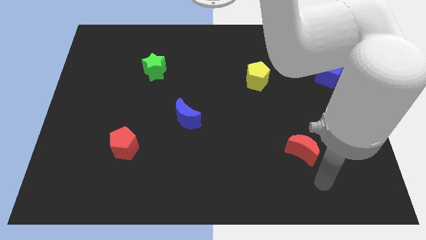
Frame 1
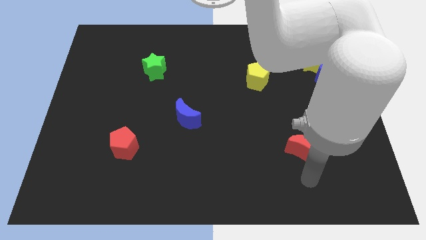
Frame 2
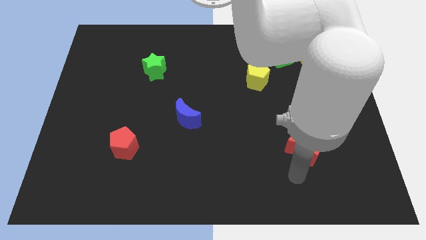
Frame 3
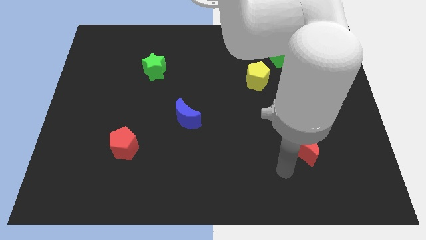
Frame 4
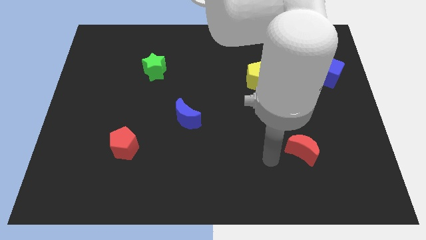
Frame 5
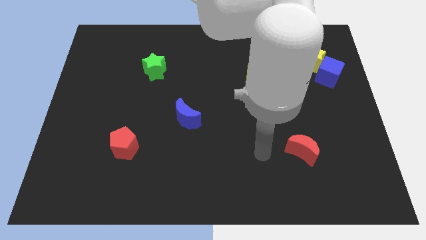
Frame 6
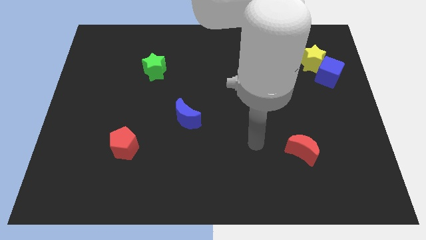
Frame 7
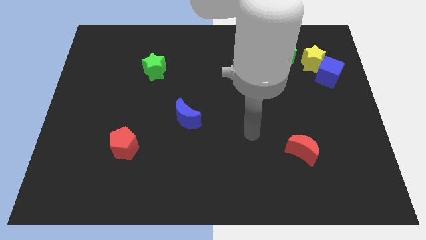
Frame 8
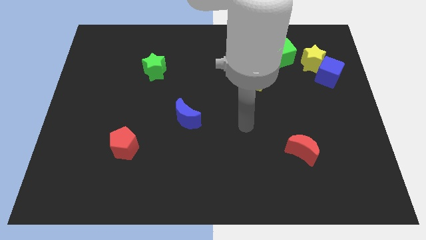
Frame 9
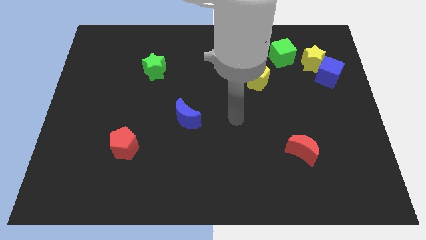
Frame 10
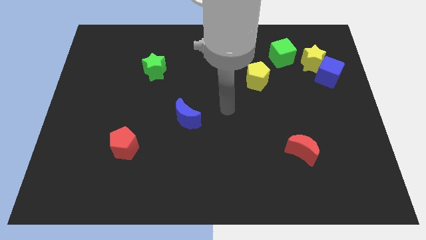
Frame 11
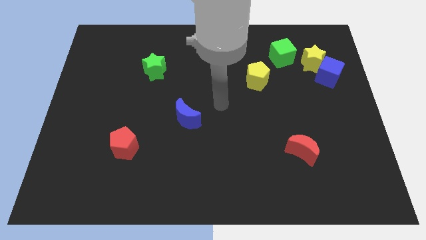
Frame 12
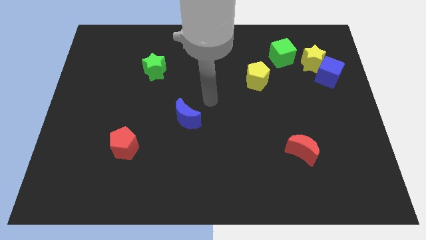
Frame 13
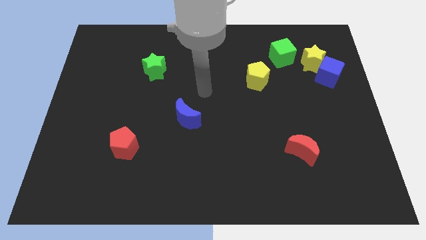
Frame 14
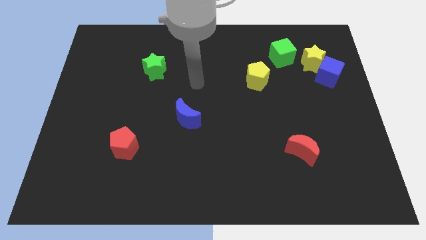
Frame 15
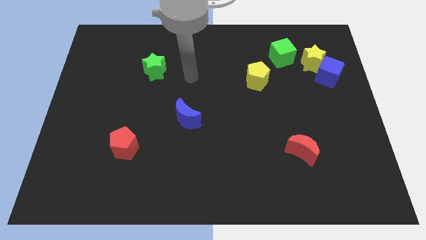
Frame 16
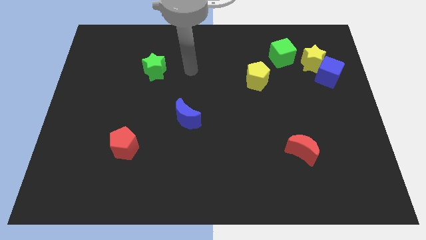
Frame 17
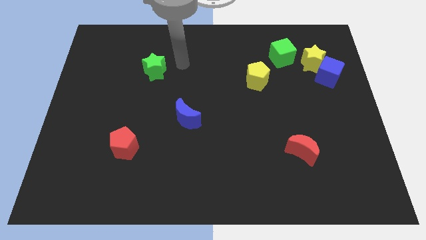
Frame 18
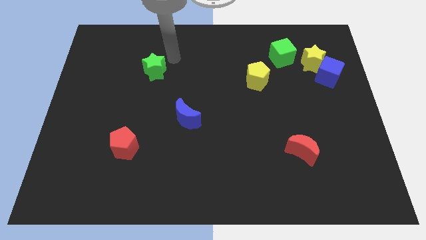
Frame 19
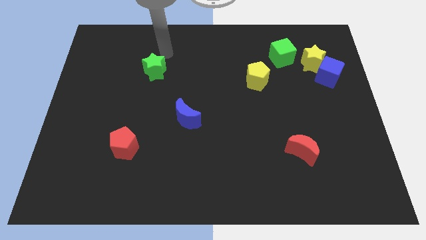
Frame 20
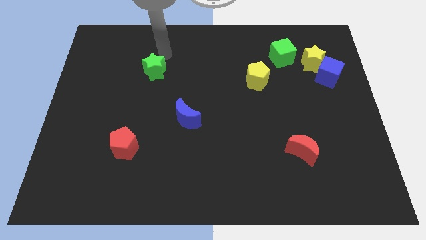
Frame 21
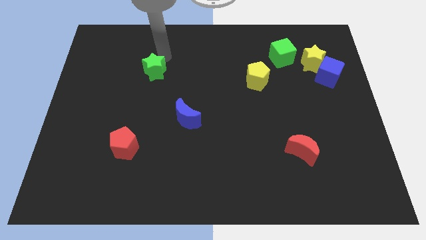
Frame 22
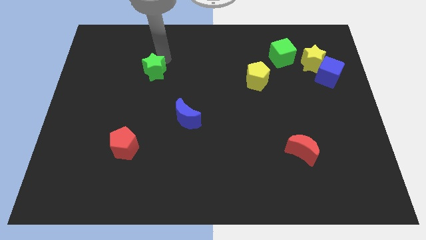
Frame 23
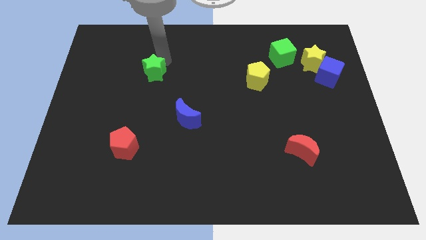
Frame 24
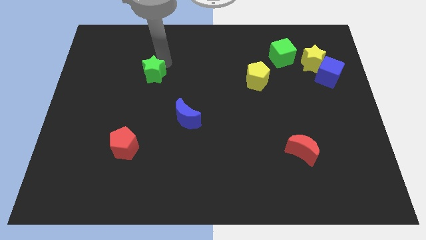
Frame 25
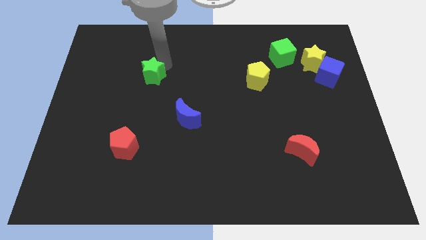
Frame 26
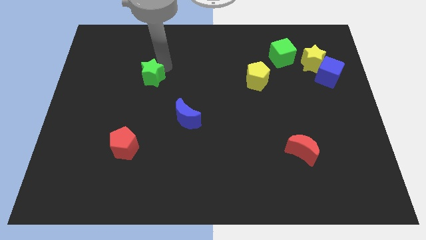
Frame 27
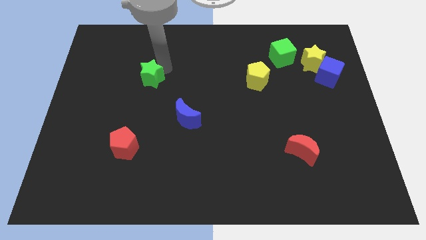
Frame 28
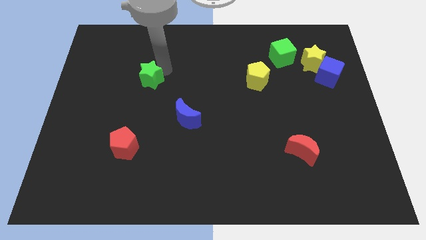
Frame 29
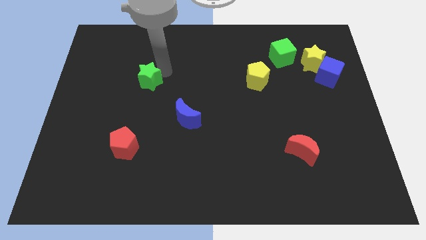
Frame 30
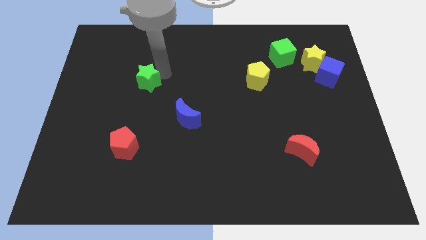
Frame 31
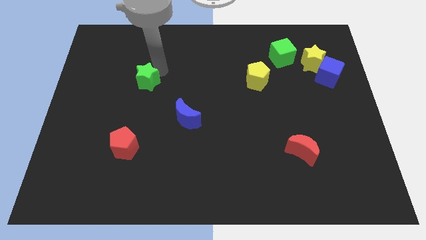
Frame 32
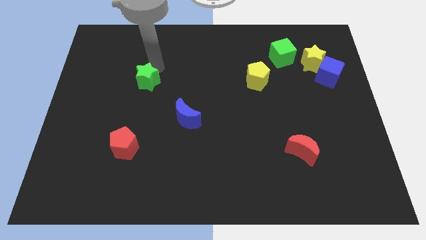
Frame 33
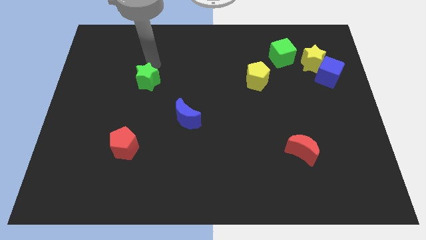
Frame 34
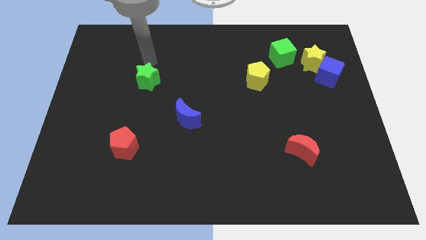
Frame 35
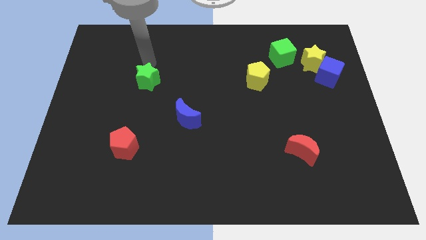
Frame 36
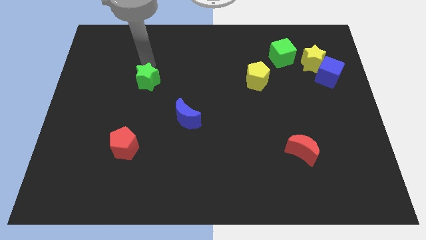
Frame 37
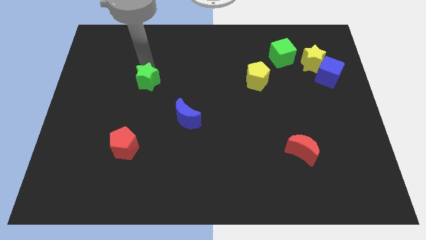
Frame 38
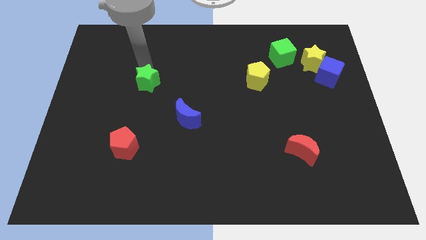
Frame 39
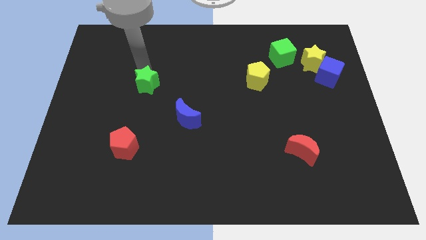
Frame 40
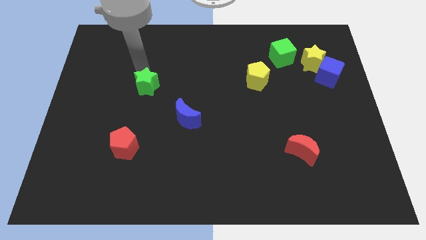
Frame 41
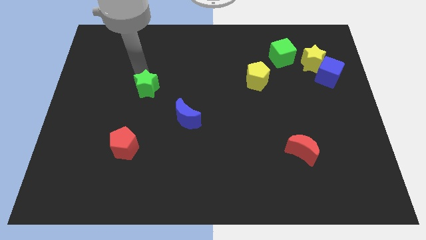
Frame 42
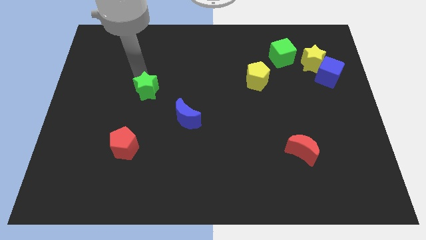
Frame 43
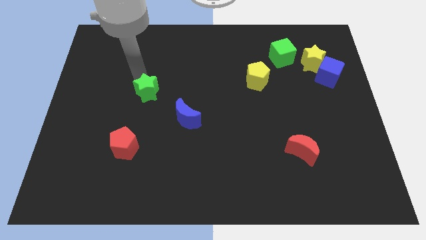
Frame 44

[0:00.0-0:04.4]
move the green star downwards a little

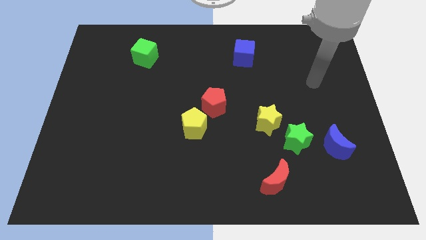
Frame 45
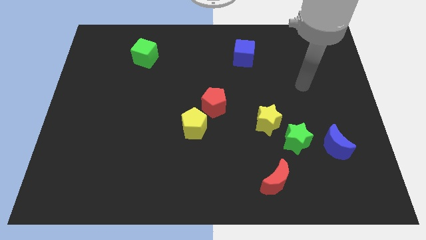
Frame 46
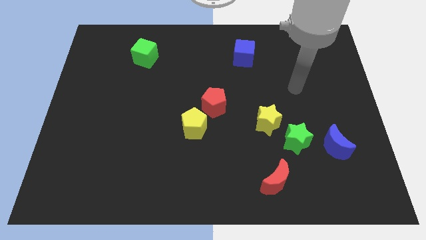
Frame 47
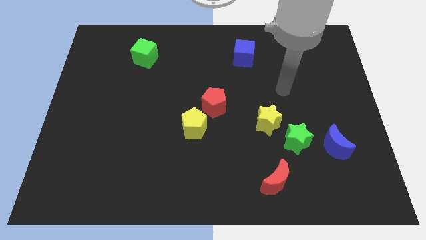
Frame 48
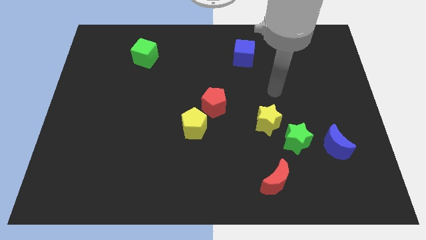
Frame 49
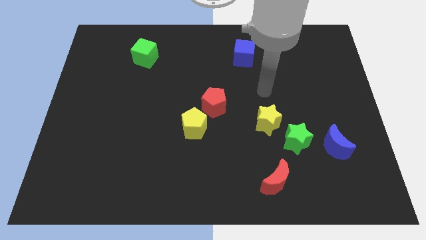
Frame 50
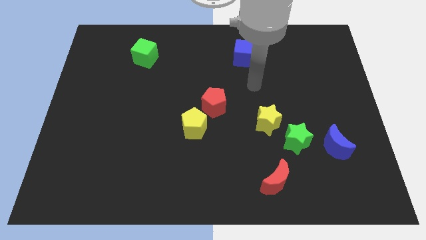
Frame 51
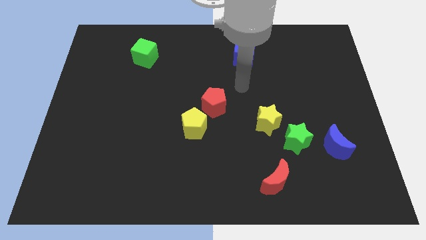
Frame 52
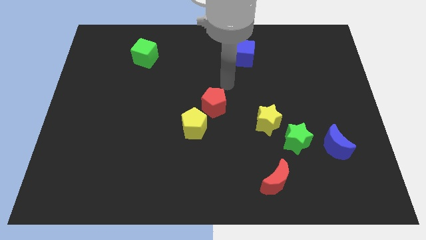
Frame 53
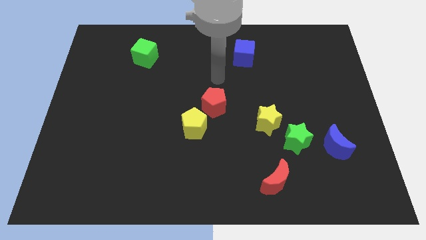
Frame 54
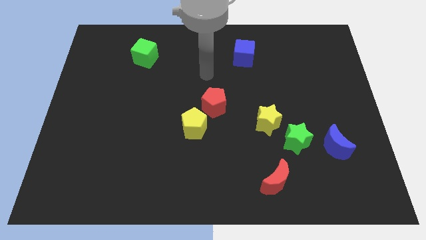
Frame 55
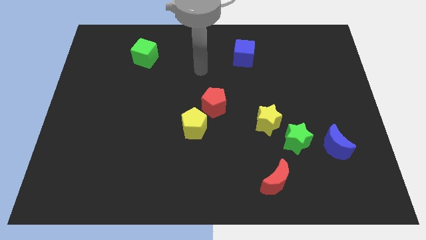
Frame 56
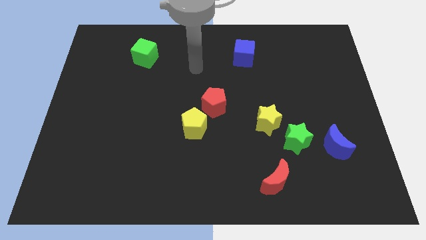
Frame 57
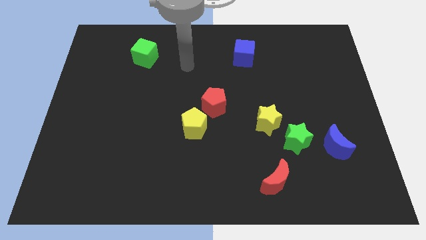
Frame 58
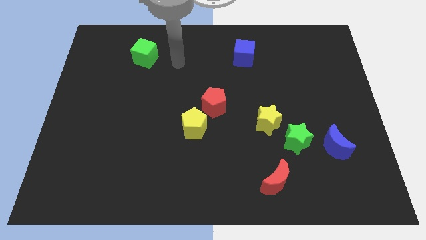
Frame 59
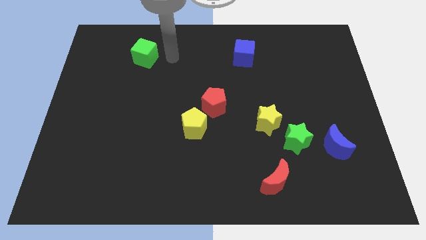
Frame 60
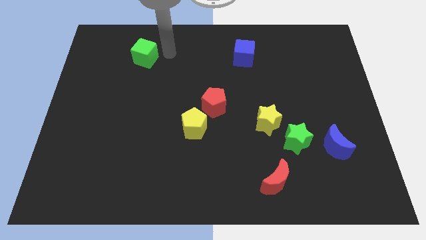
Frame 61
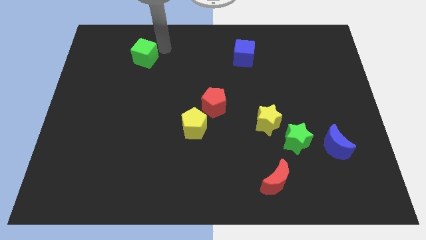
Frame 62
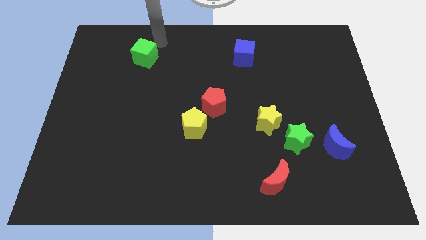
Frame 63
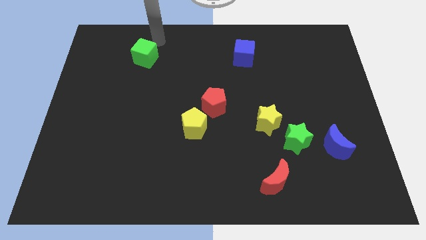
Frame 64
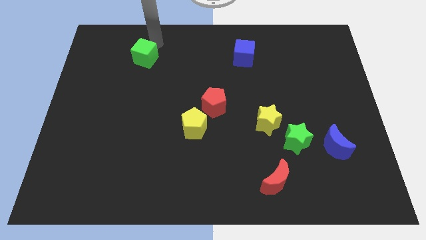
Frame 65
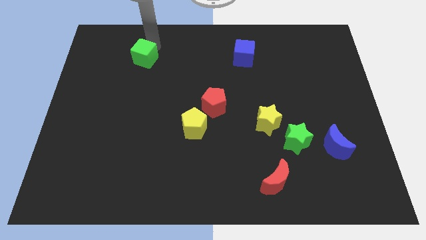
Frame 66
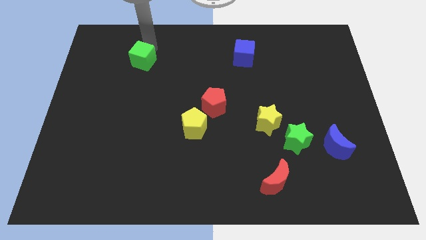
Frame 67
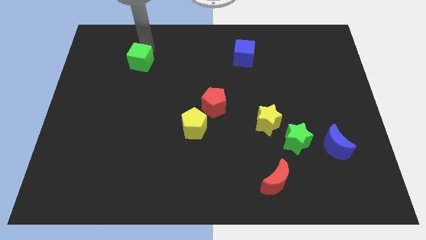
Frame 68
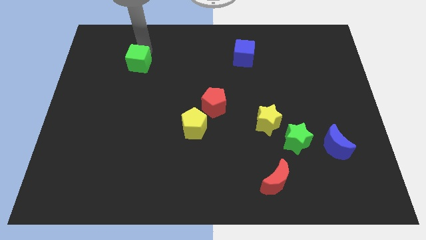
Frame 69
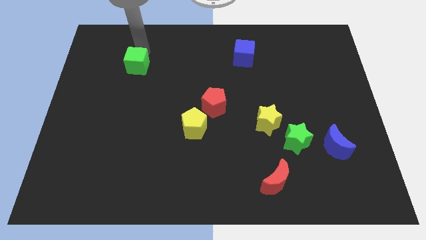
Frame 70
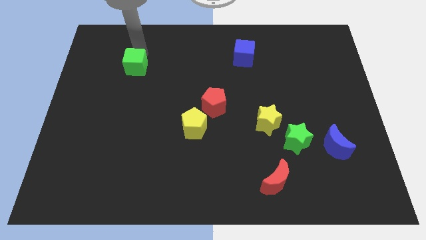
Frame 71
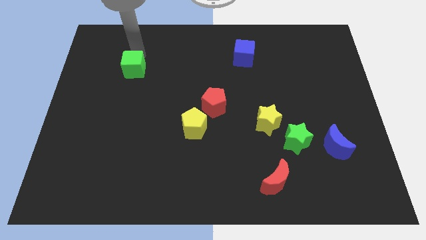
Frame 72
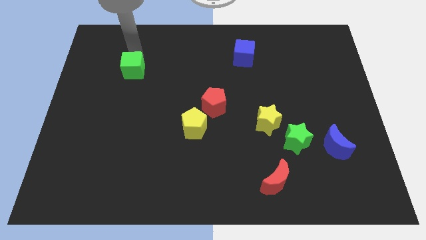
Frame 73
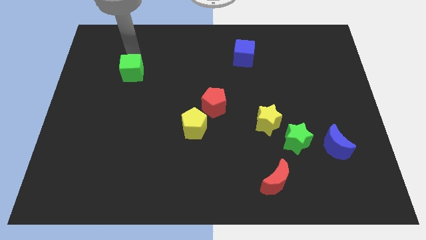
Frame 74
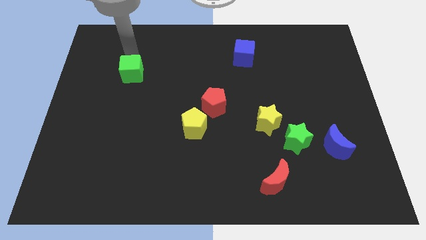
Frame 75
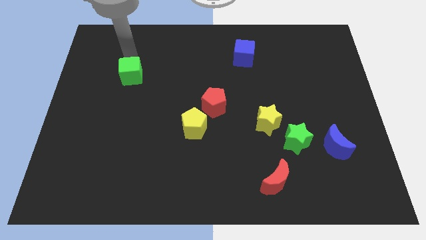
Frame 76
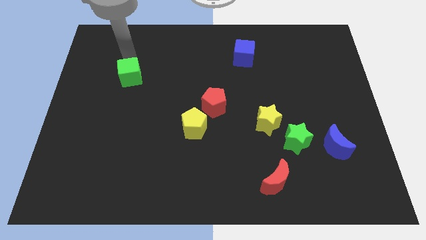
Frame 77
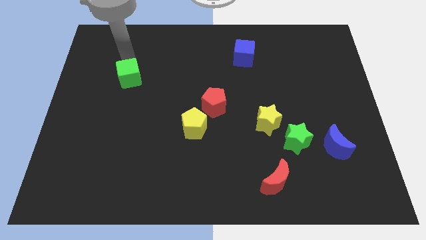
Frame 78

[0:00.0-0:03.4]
slightly slide the green cube downwards

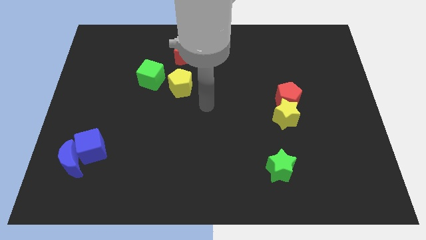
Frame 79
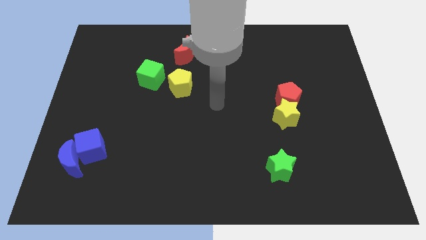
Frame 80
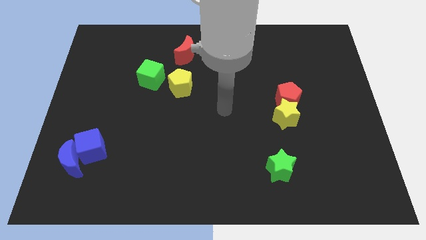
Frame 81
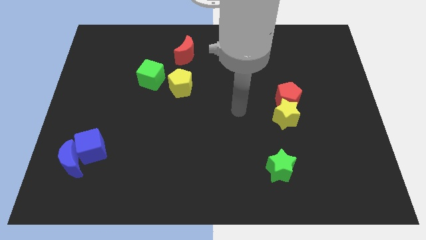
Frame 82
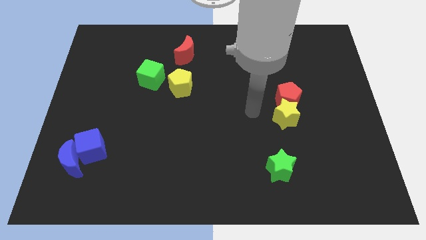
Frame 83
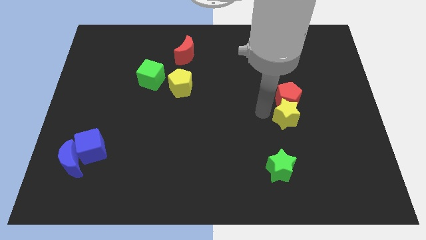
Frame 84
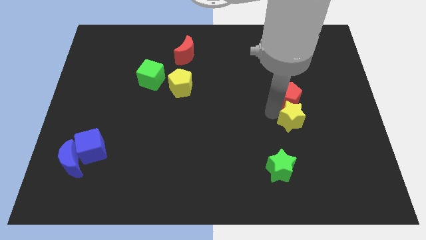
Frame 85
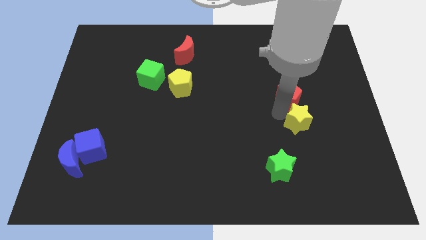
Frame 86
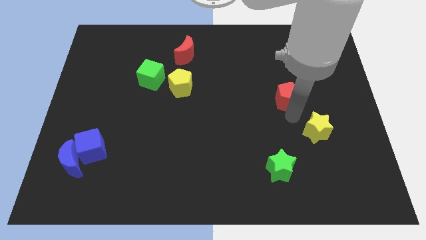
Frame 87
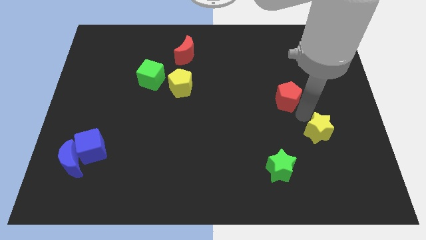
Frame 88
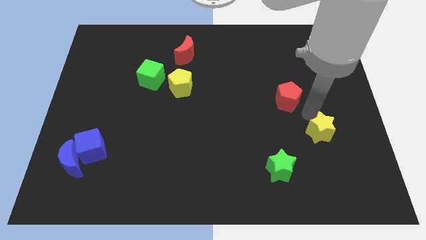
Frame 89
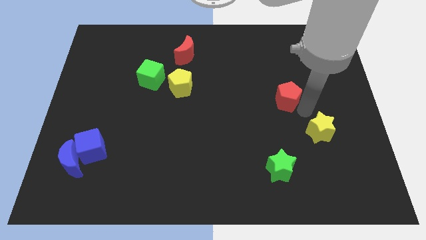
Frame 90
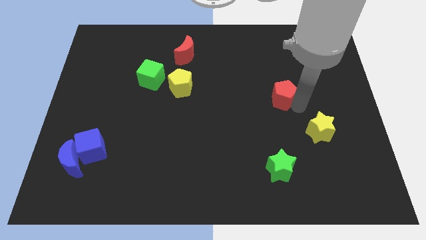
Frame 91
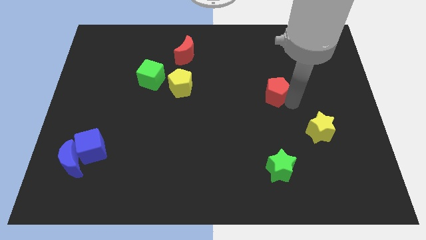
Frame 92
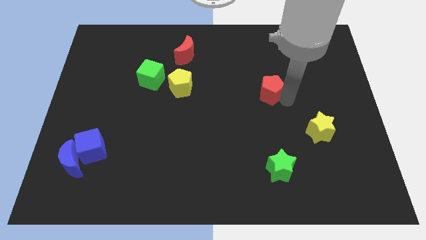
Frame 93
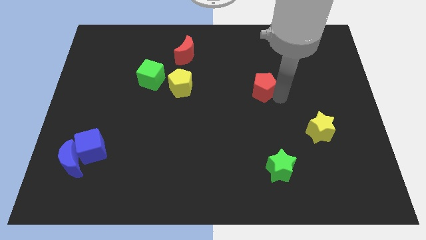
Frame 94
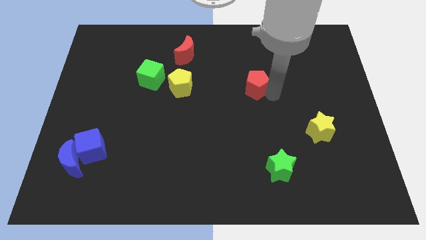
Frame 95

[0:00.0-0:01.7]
slightly slide the red pentagon upwards and to the left
